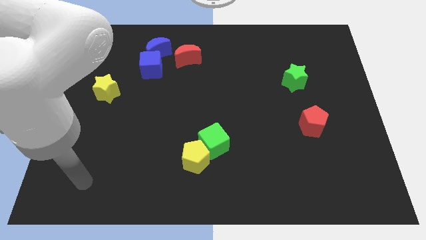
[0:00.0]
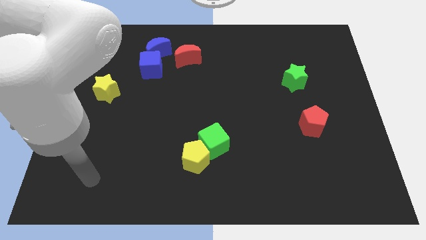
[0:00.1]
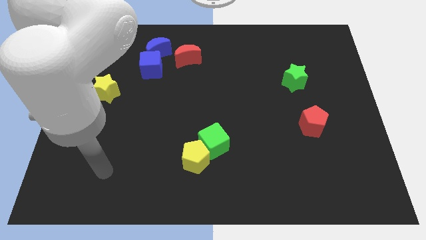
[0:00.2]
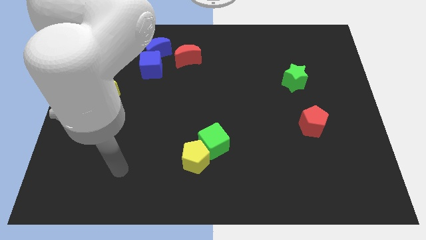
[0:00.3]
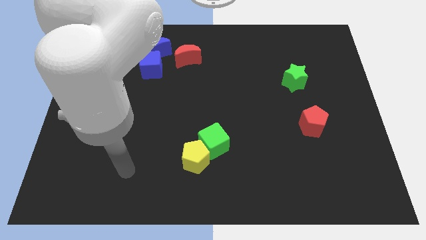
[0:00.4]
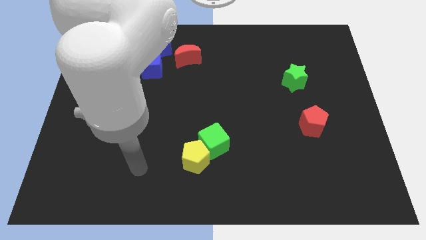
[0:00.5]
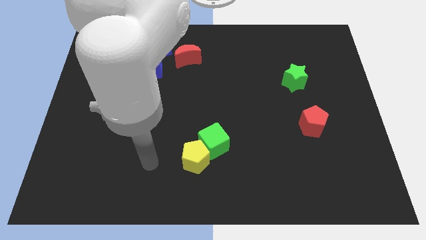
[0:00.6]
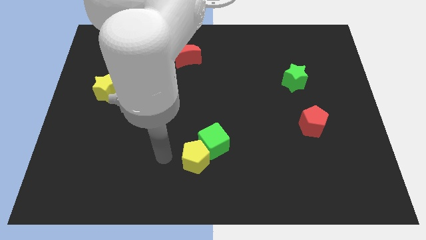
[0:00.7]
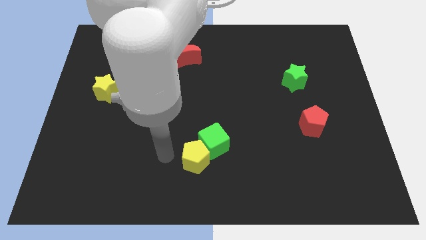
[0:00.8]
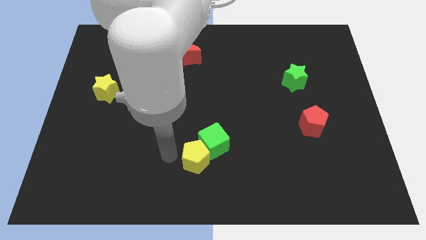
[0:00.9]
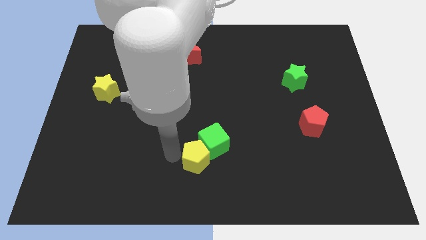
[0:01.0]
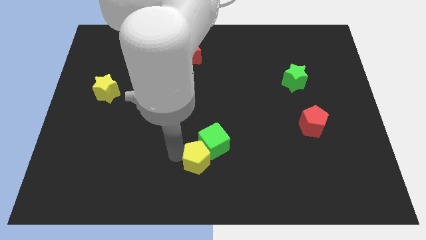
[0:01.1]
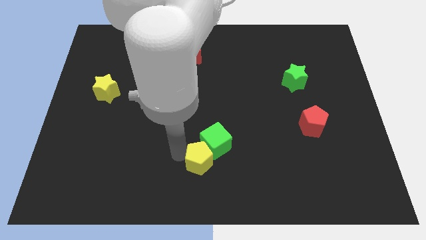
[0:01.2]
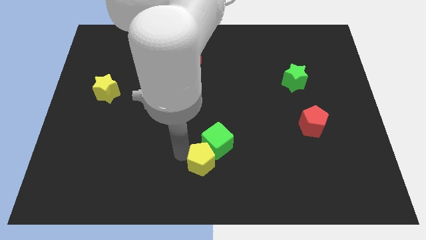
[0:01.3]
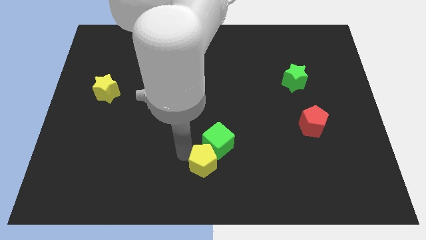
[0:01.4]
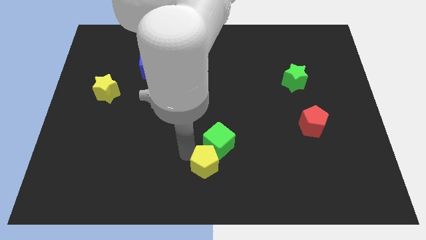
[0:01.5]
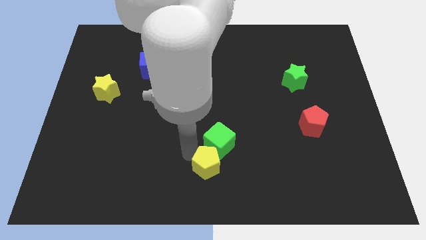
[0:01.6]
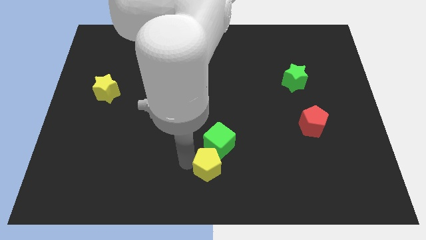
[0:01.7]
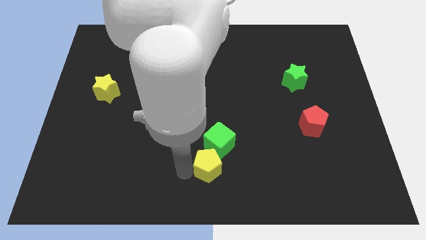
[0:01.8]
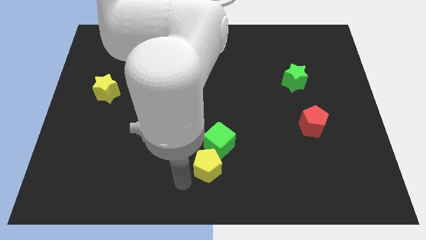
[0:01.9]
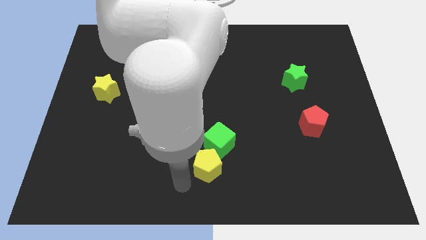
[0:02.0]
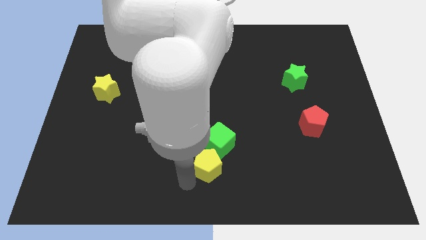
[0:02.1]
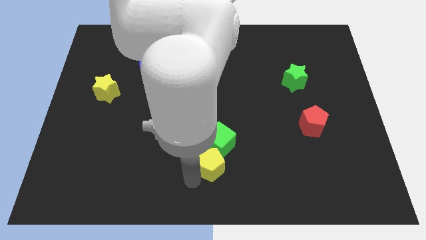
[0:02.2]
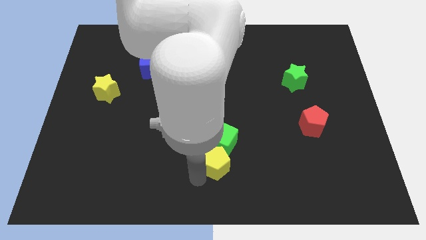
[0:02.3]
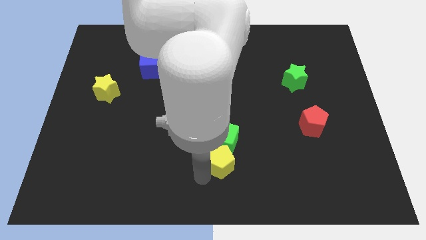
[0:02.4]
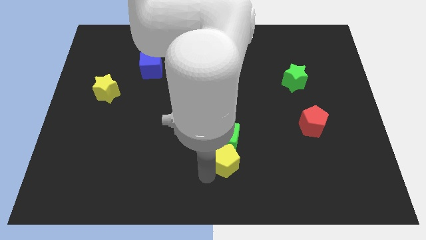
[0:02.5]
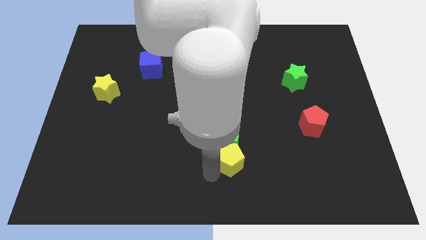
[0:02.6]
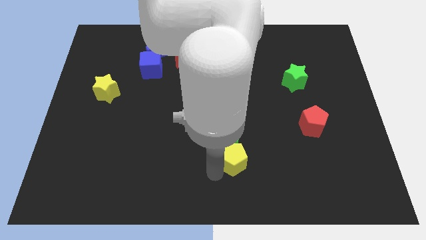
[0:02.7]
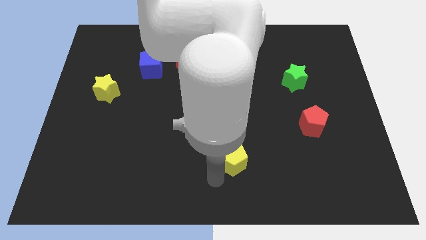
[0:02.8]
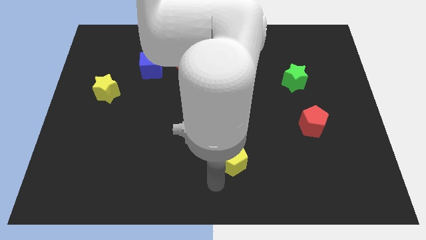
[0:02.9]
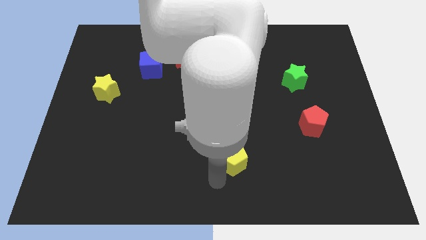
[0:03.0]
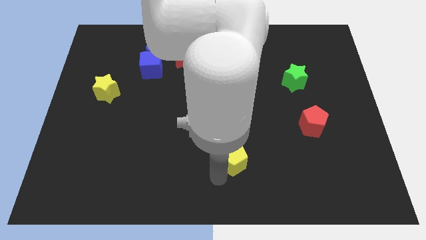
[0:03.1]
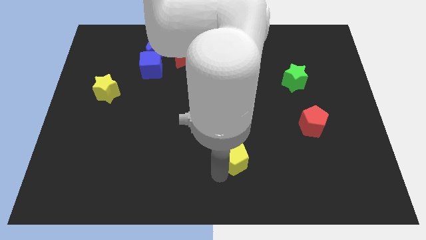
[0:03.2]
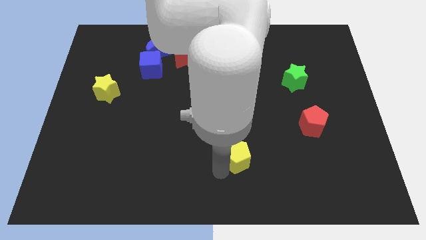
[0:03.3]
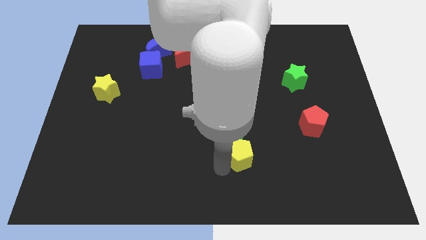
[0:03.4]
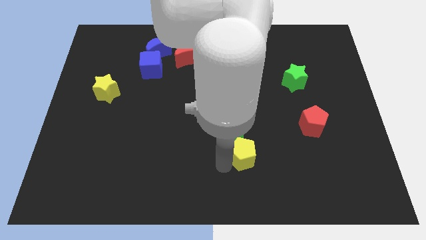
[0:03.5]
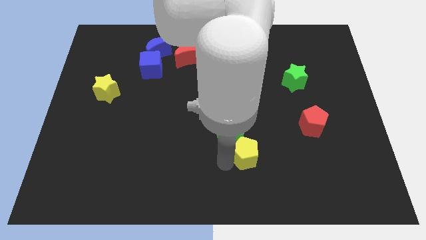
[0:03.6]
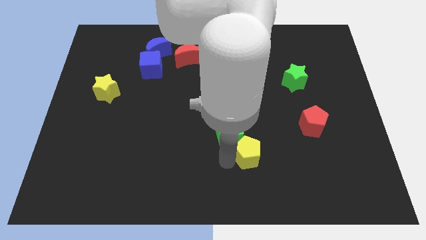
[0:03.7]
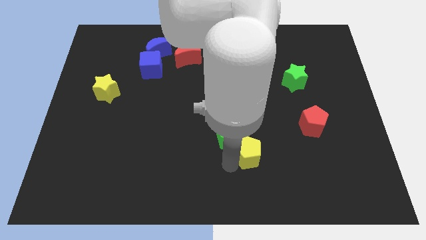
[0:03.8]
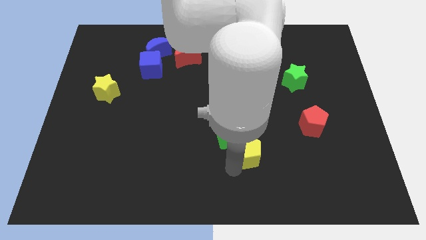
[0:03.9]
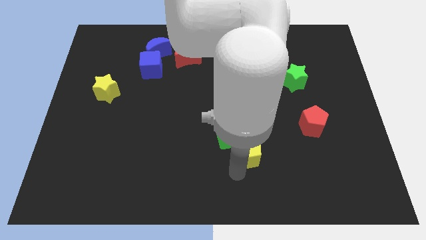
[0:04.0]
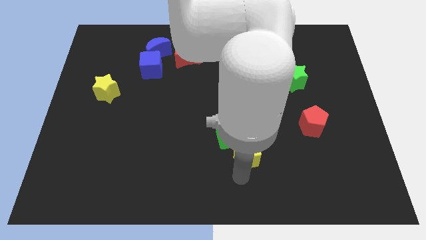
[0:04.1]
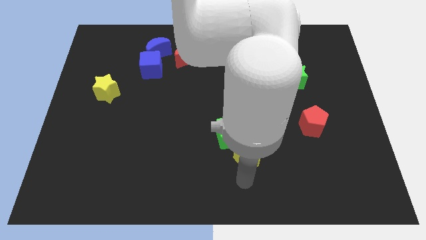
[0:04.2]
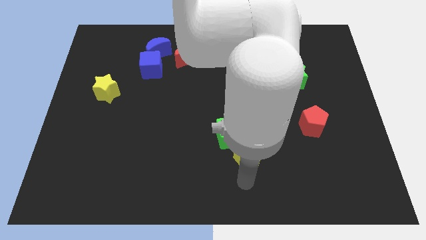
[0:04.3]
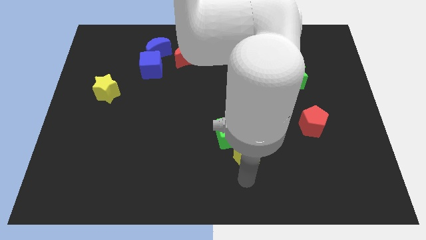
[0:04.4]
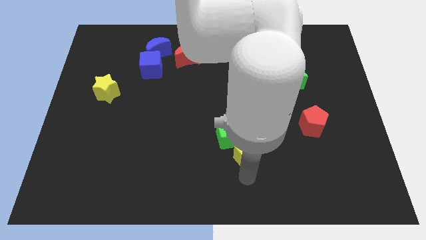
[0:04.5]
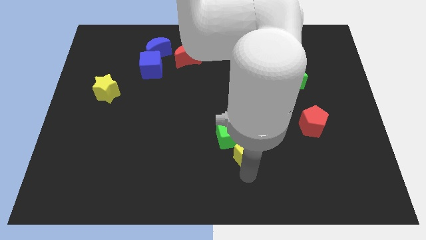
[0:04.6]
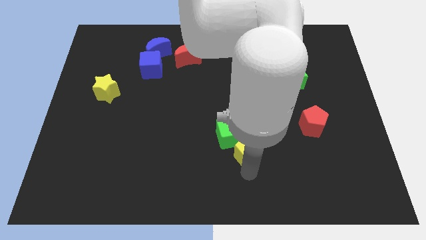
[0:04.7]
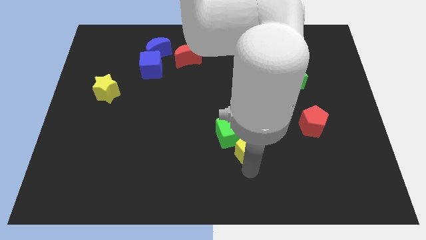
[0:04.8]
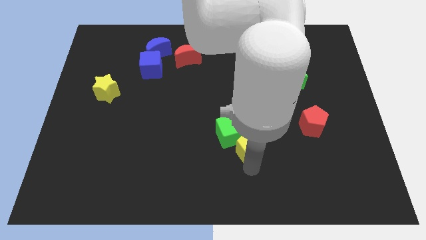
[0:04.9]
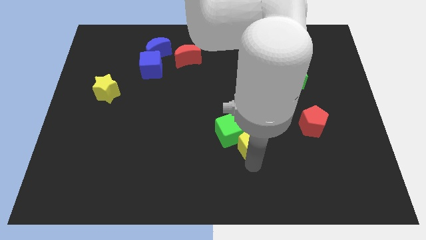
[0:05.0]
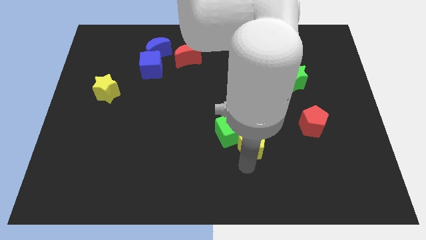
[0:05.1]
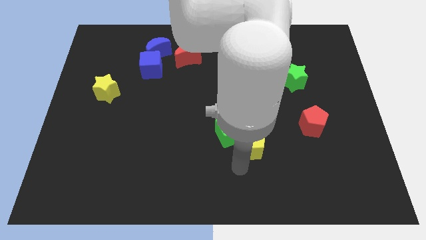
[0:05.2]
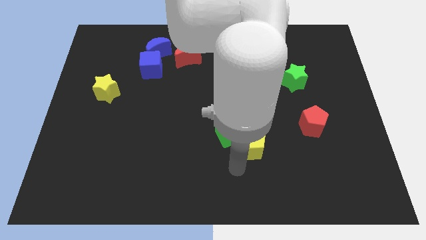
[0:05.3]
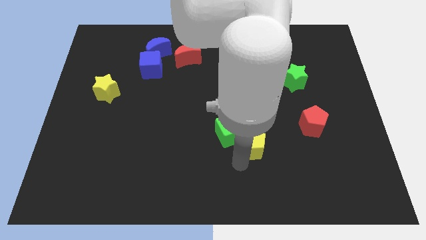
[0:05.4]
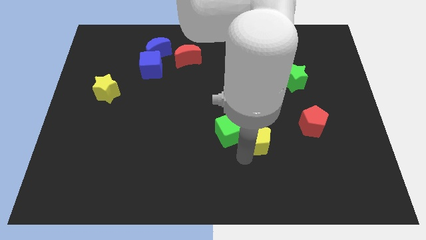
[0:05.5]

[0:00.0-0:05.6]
put the yellow pentagon to the left side of the red pentagon

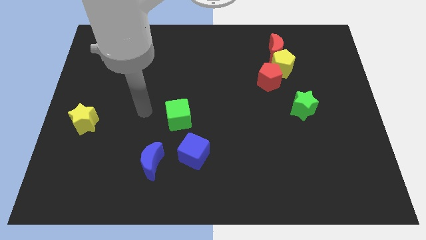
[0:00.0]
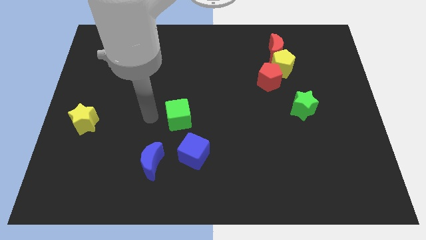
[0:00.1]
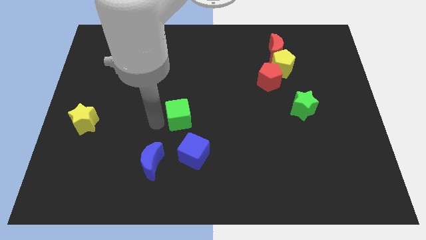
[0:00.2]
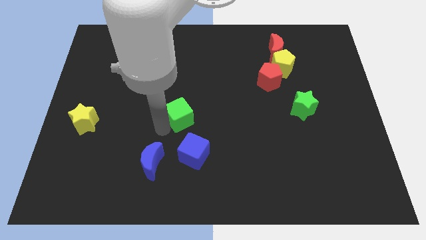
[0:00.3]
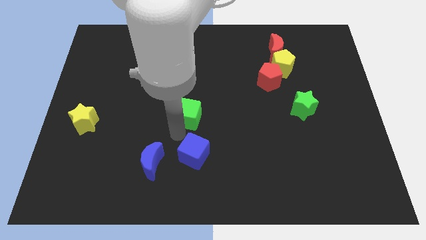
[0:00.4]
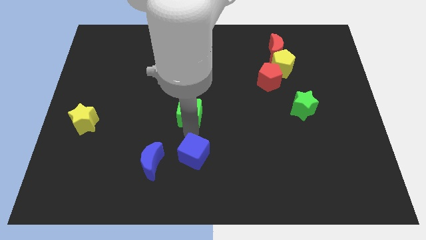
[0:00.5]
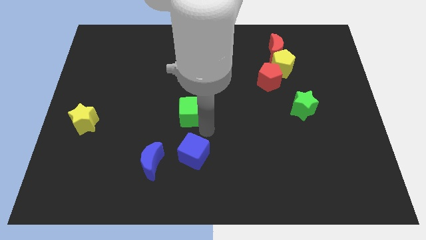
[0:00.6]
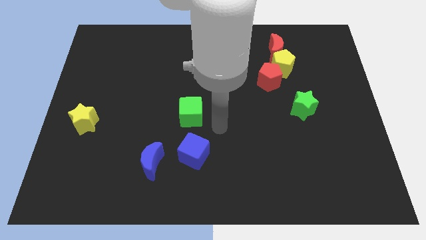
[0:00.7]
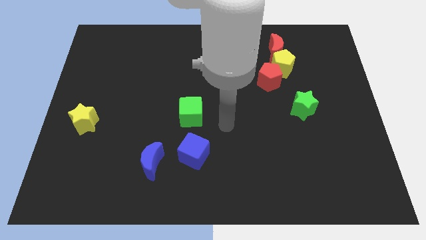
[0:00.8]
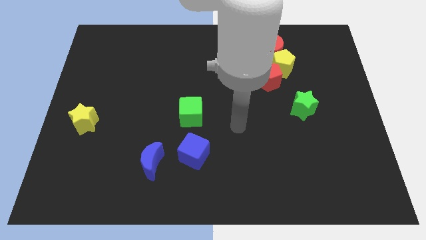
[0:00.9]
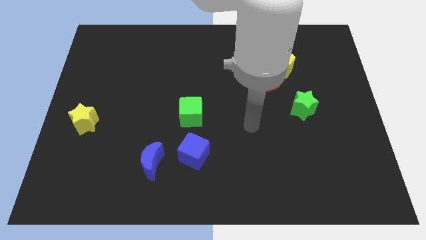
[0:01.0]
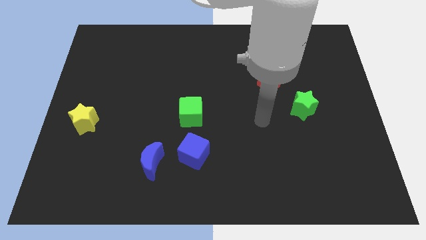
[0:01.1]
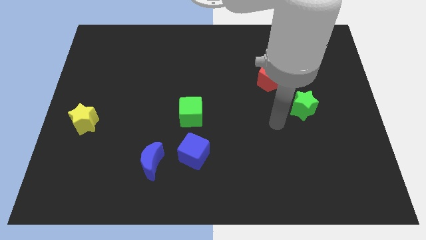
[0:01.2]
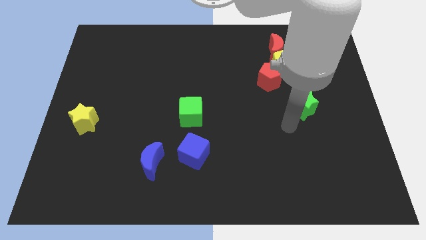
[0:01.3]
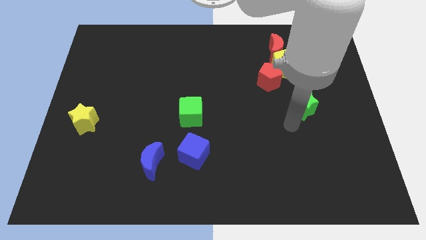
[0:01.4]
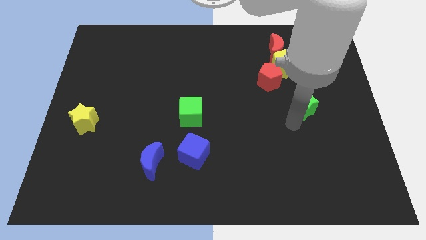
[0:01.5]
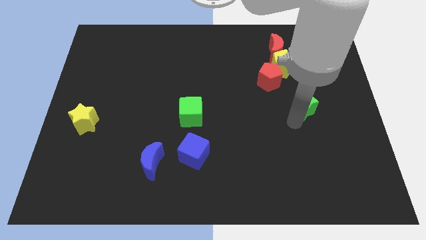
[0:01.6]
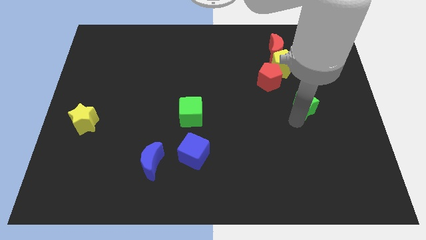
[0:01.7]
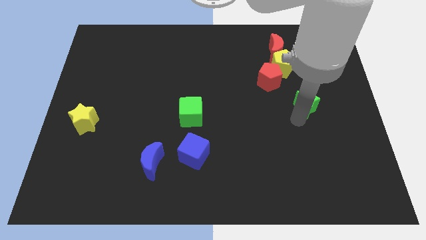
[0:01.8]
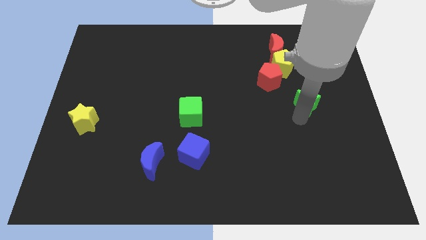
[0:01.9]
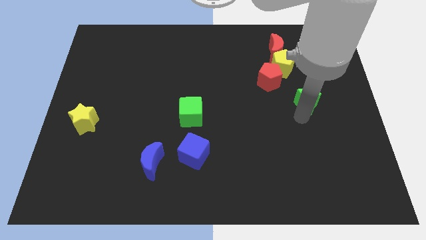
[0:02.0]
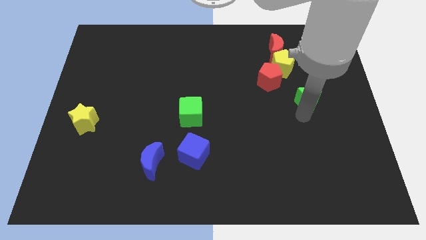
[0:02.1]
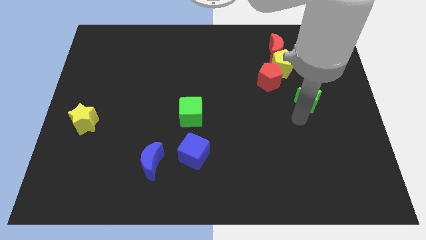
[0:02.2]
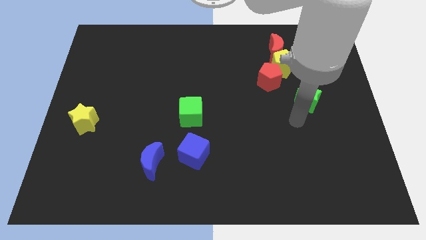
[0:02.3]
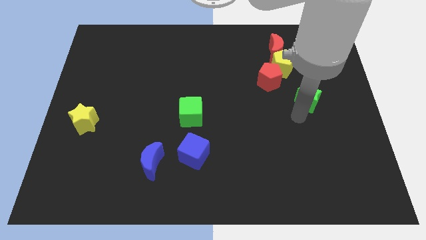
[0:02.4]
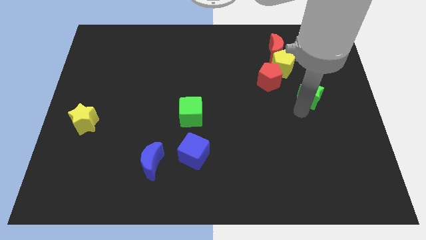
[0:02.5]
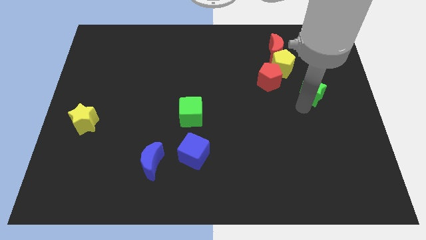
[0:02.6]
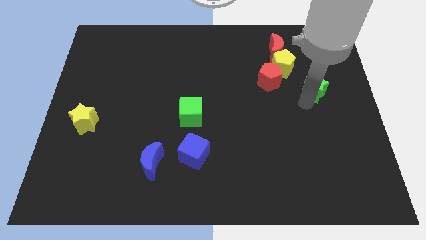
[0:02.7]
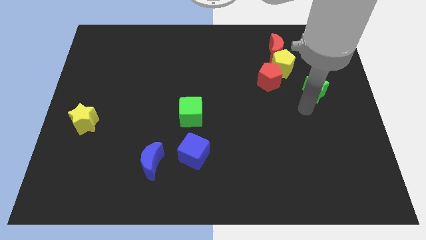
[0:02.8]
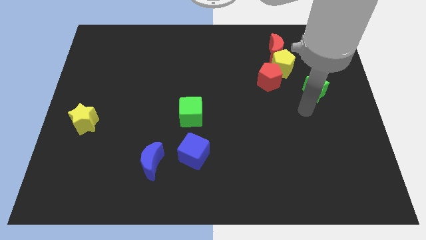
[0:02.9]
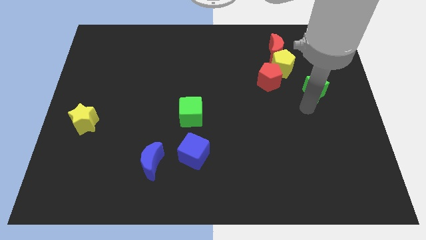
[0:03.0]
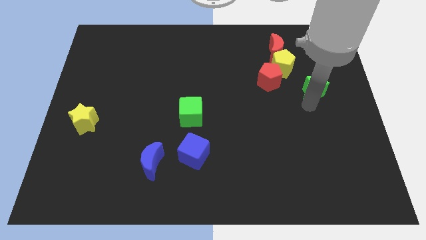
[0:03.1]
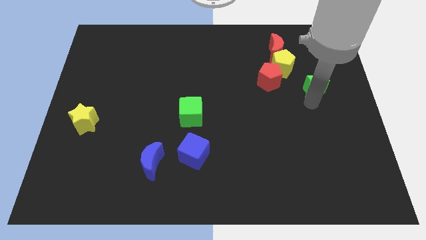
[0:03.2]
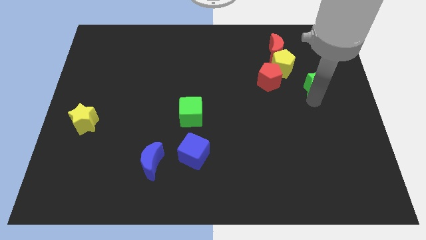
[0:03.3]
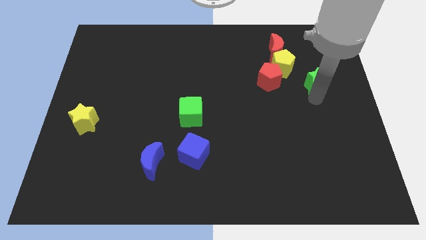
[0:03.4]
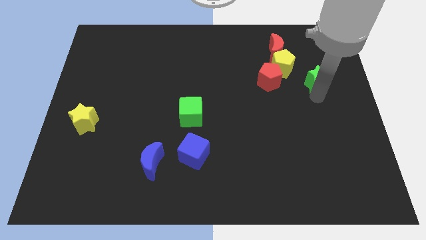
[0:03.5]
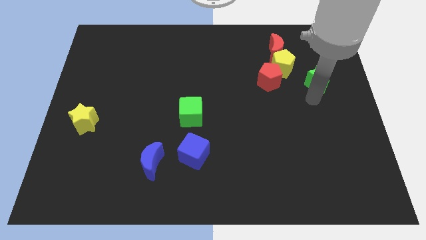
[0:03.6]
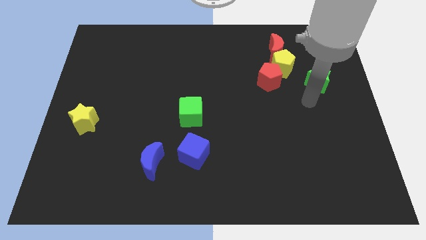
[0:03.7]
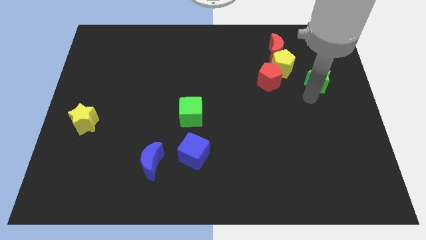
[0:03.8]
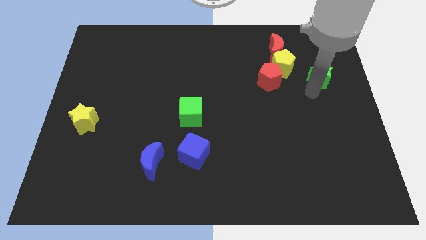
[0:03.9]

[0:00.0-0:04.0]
push the green star just right of the yellow pentagon
